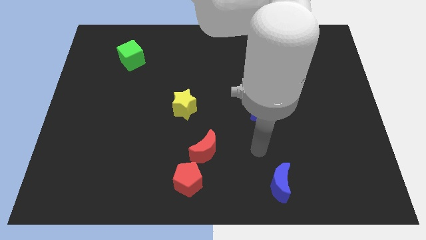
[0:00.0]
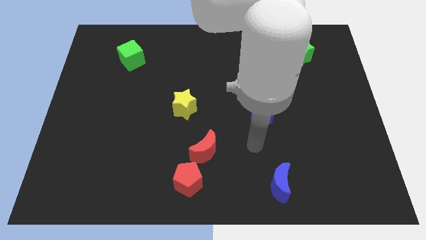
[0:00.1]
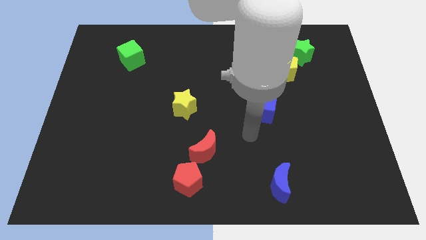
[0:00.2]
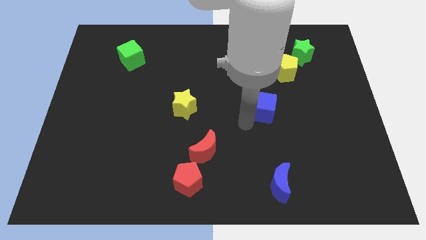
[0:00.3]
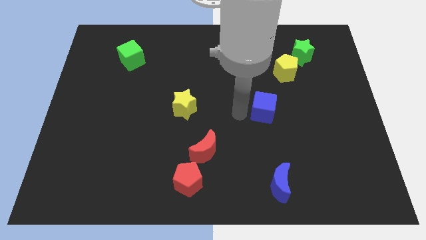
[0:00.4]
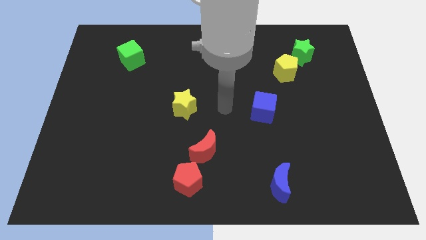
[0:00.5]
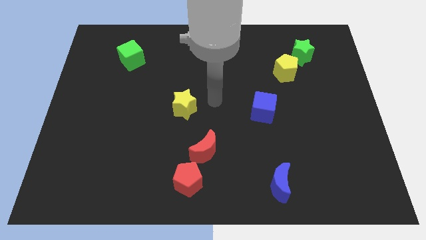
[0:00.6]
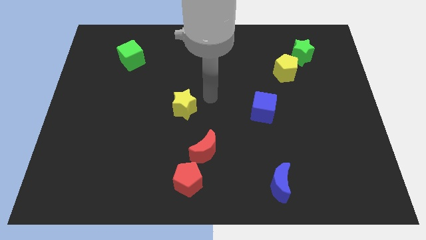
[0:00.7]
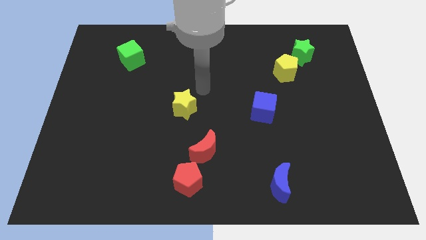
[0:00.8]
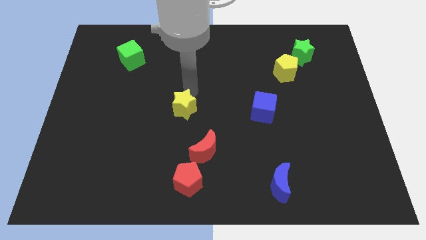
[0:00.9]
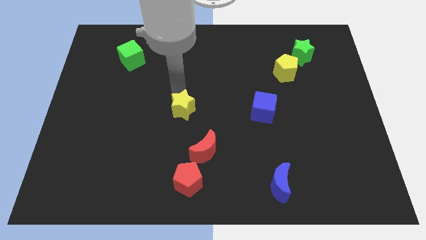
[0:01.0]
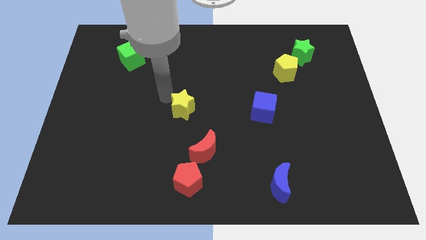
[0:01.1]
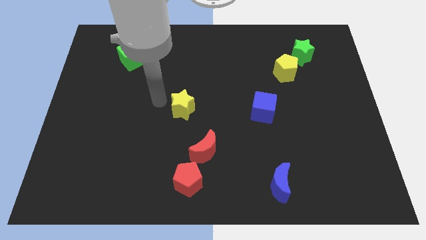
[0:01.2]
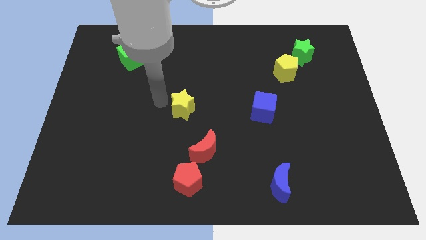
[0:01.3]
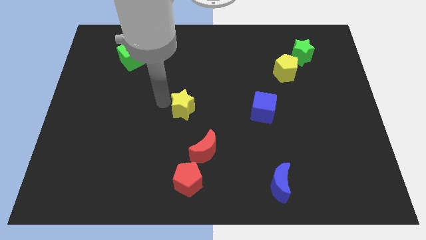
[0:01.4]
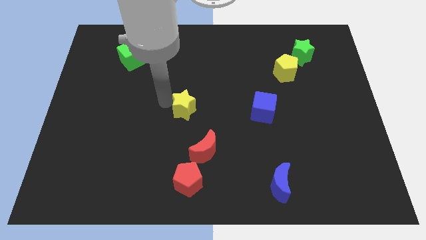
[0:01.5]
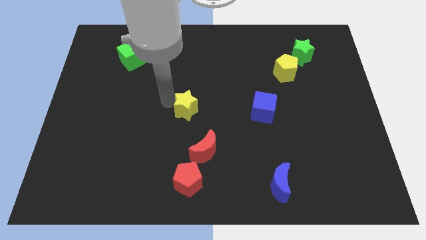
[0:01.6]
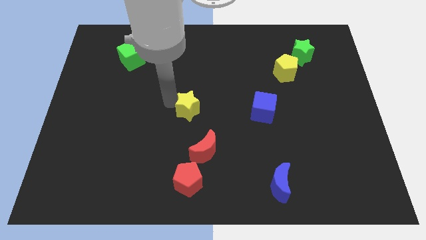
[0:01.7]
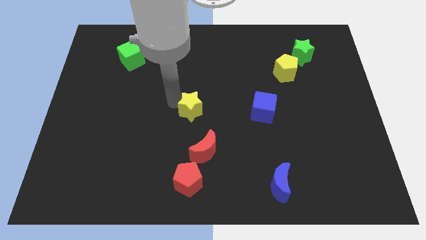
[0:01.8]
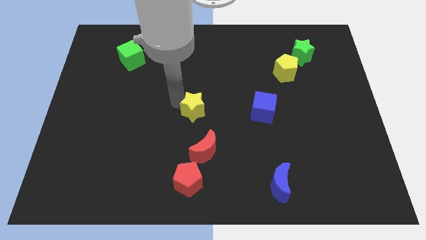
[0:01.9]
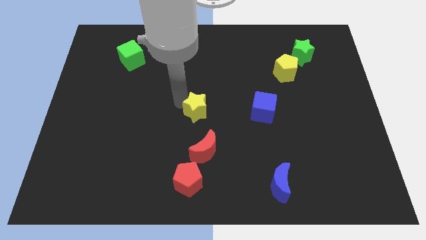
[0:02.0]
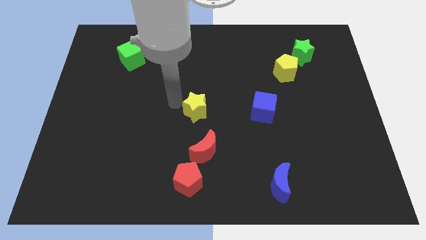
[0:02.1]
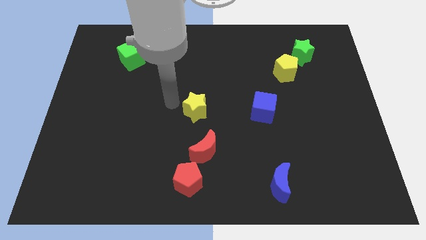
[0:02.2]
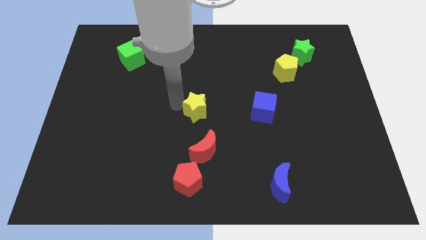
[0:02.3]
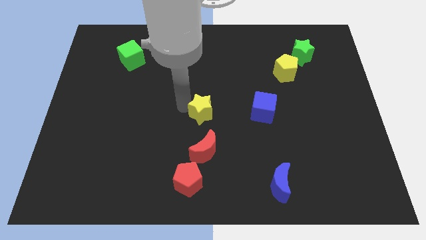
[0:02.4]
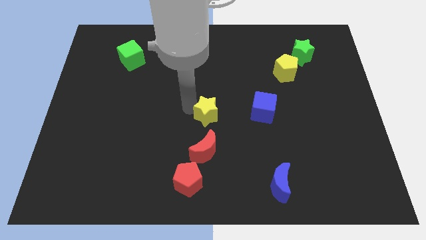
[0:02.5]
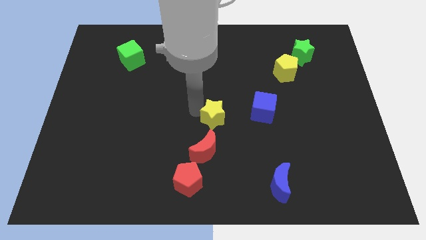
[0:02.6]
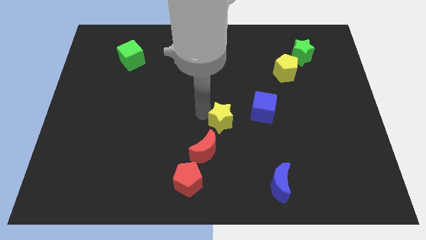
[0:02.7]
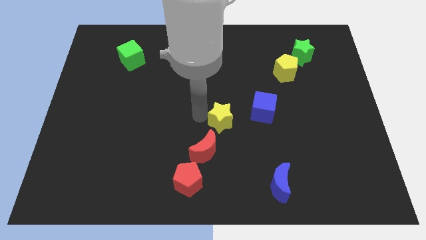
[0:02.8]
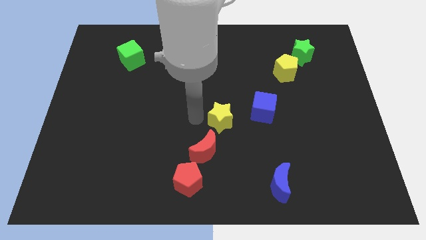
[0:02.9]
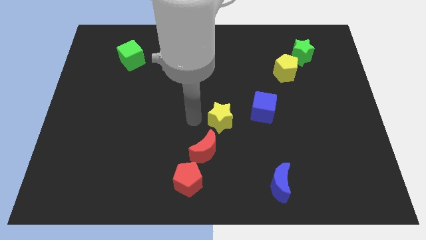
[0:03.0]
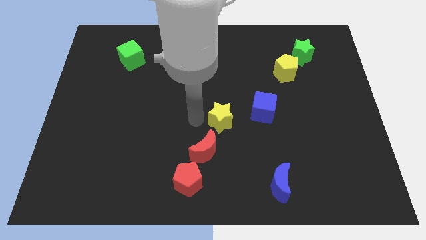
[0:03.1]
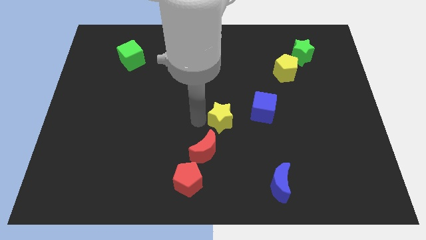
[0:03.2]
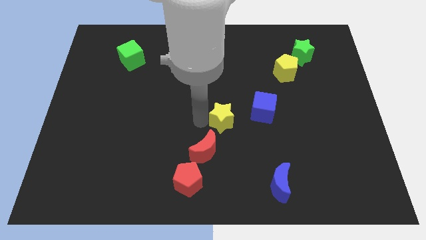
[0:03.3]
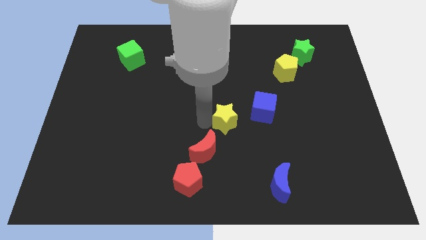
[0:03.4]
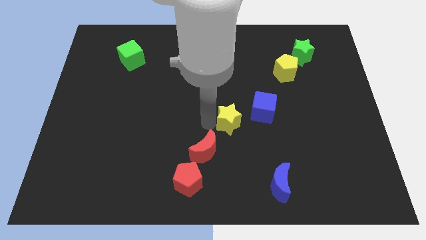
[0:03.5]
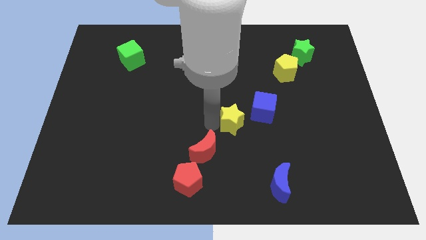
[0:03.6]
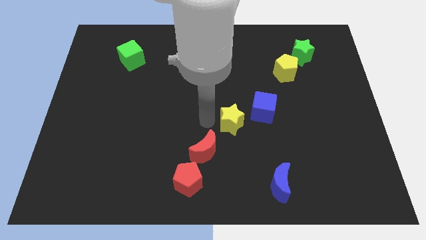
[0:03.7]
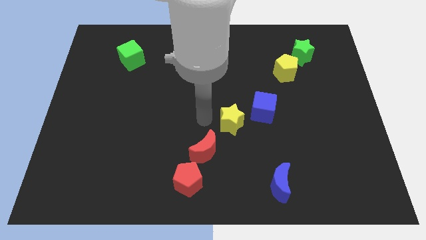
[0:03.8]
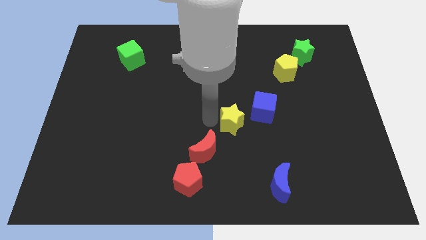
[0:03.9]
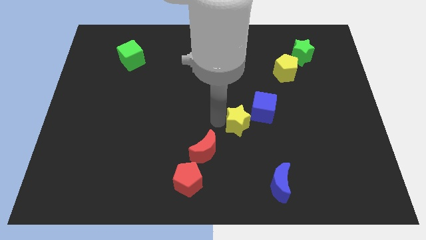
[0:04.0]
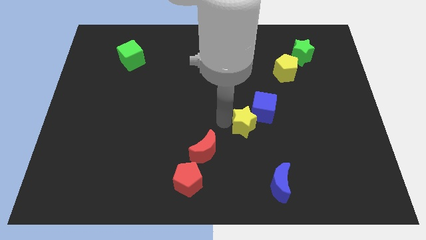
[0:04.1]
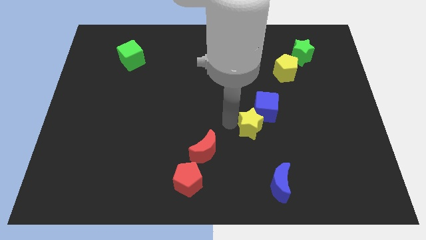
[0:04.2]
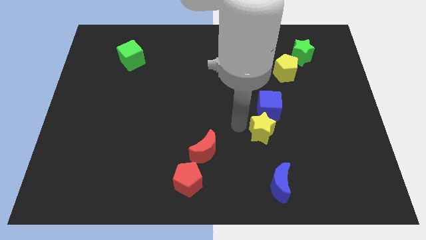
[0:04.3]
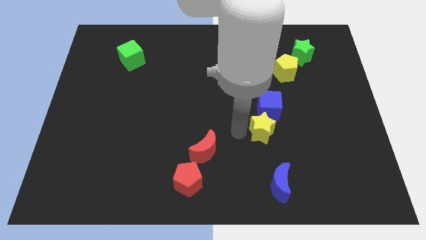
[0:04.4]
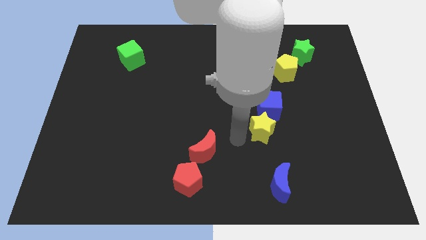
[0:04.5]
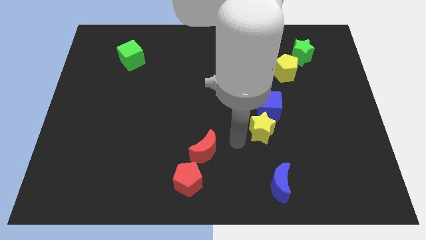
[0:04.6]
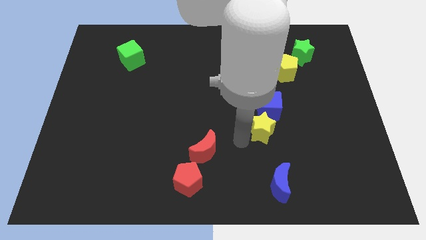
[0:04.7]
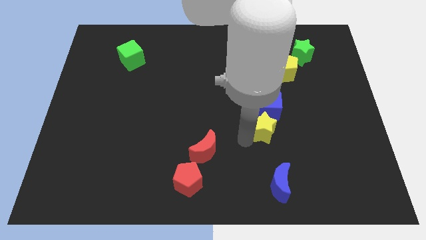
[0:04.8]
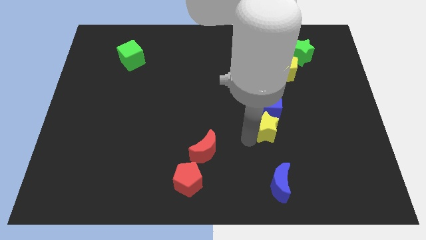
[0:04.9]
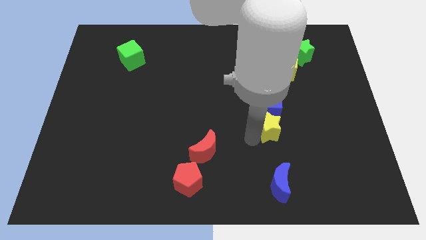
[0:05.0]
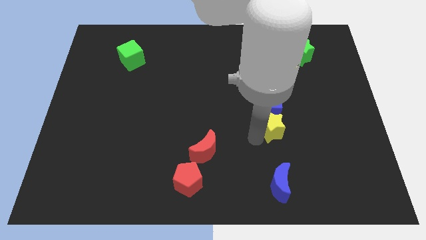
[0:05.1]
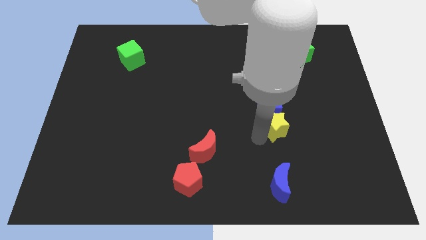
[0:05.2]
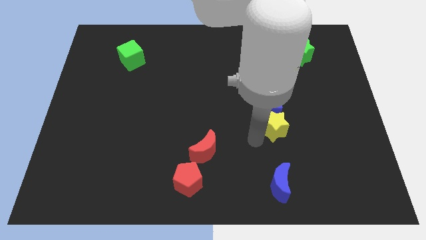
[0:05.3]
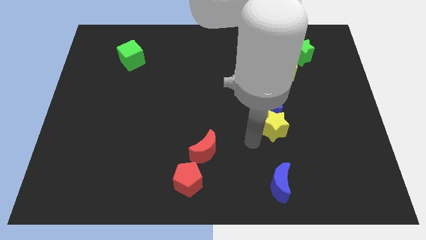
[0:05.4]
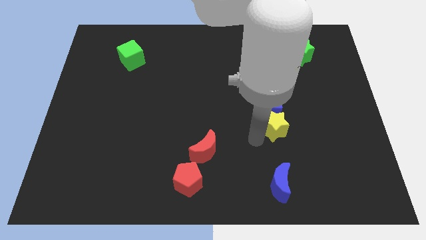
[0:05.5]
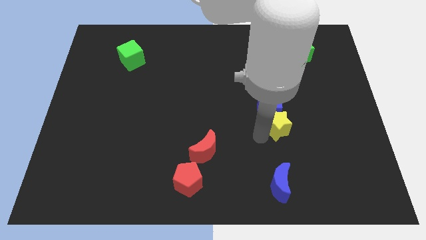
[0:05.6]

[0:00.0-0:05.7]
move the yellow star to the right

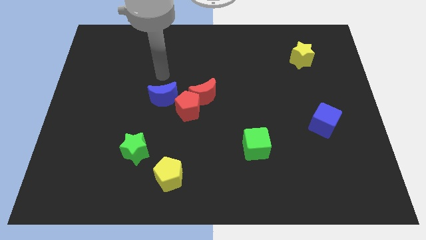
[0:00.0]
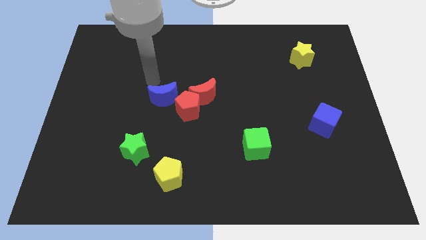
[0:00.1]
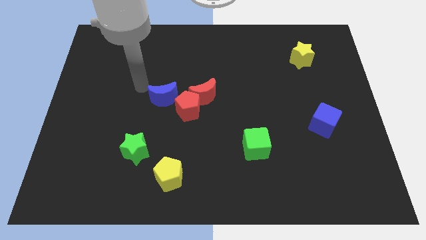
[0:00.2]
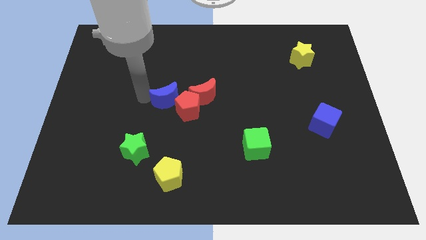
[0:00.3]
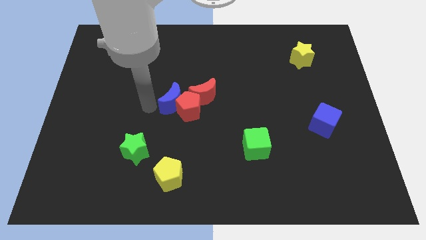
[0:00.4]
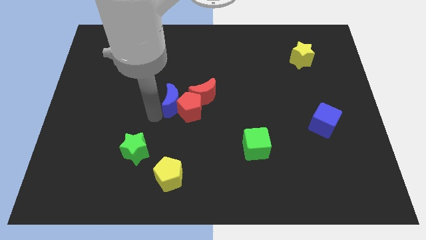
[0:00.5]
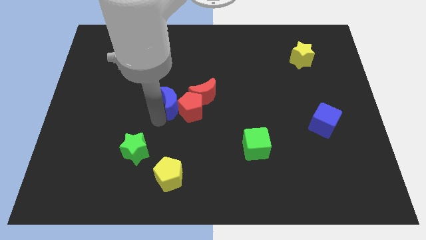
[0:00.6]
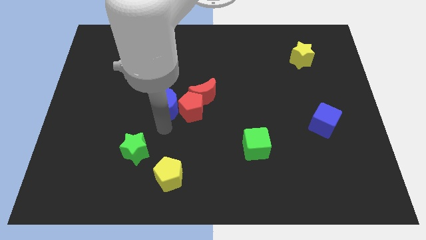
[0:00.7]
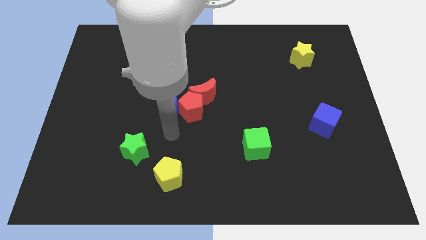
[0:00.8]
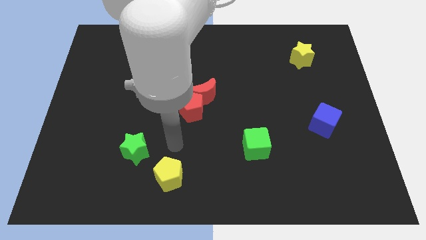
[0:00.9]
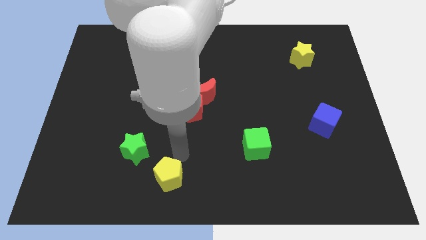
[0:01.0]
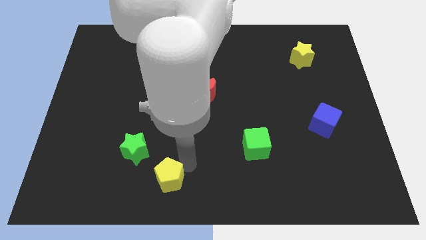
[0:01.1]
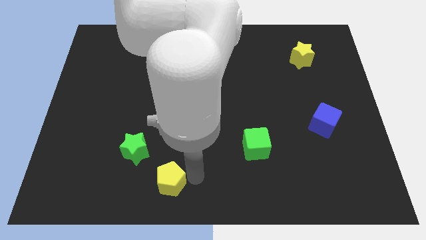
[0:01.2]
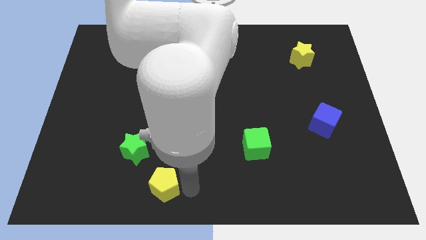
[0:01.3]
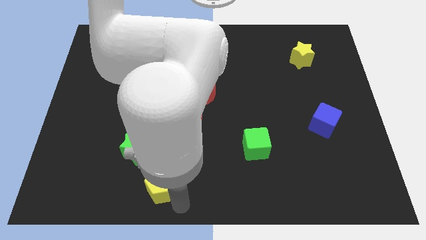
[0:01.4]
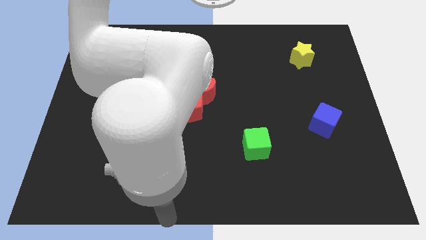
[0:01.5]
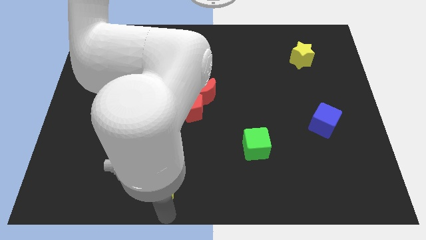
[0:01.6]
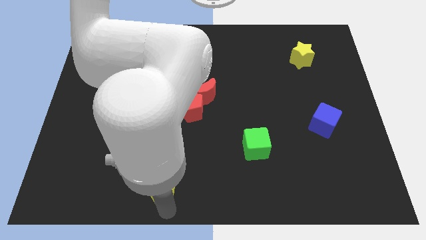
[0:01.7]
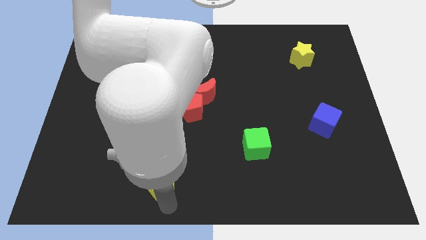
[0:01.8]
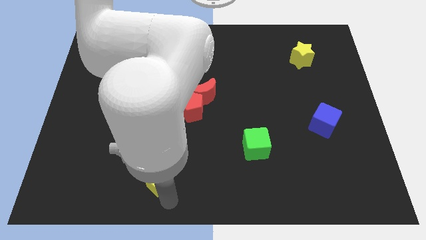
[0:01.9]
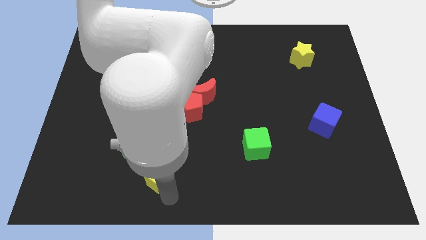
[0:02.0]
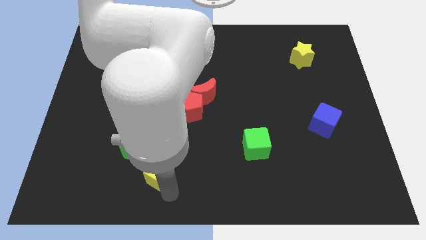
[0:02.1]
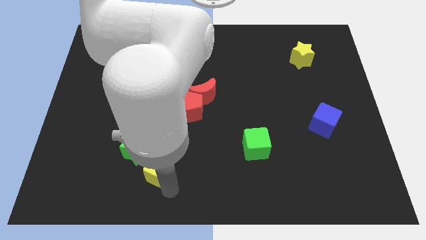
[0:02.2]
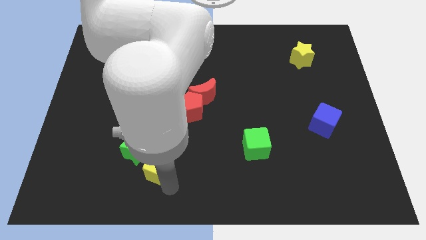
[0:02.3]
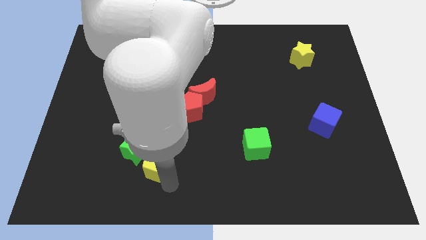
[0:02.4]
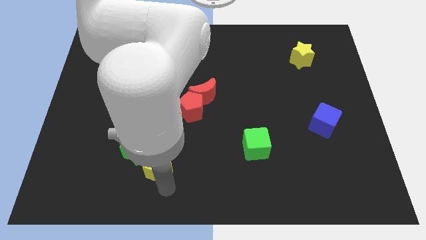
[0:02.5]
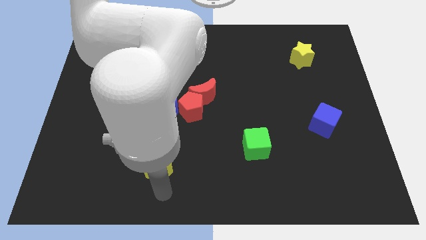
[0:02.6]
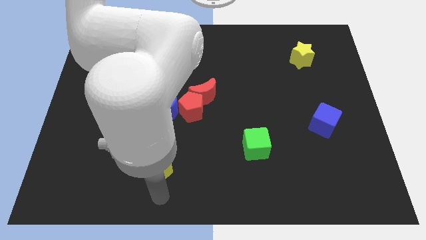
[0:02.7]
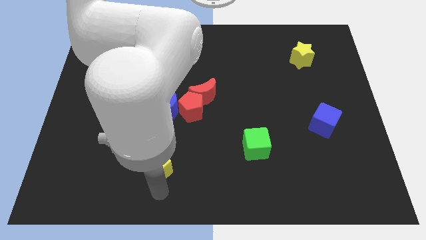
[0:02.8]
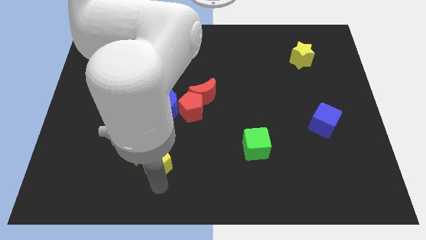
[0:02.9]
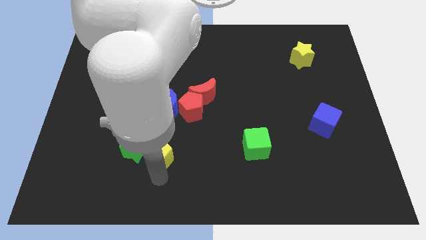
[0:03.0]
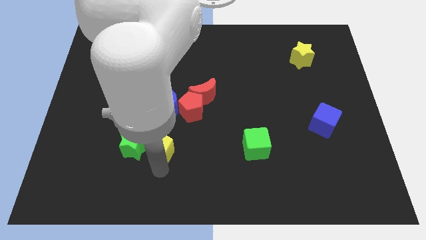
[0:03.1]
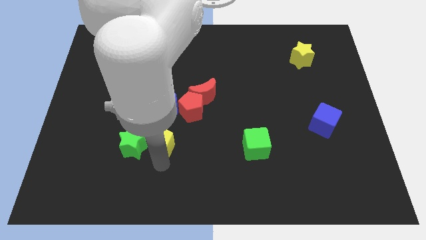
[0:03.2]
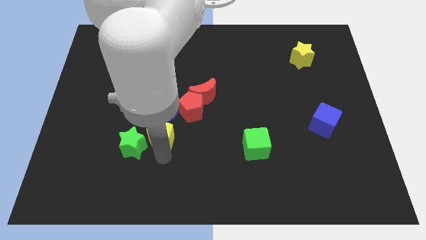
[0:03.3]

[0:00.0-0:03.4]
push the yellow pentagon a little up and to the left diagonally
